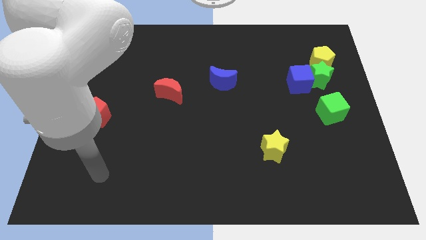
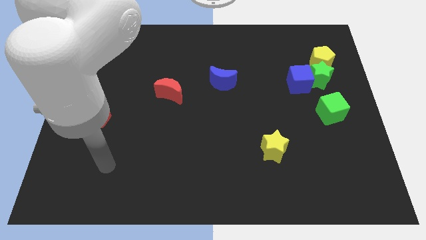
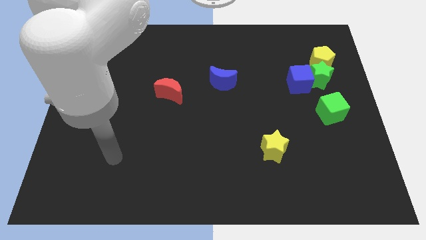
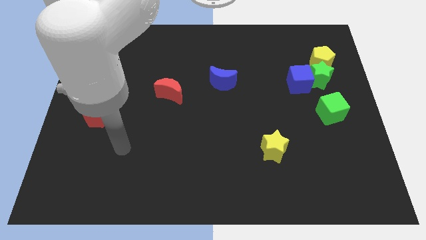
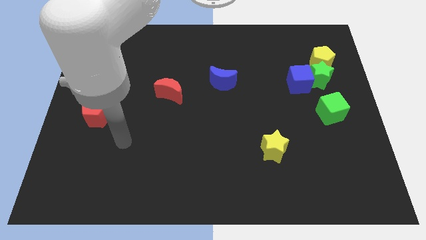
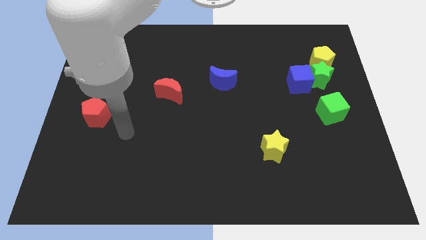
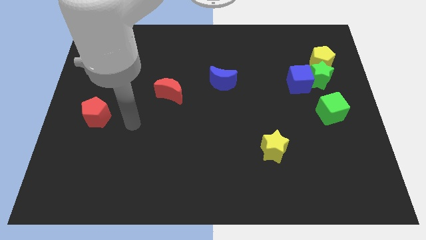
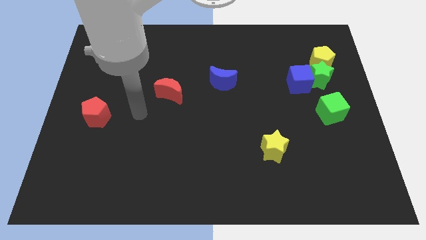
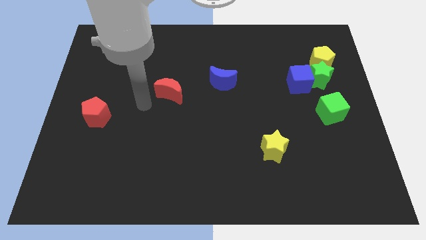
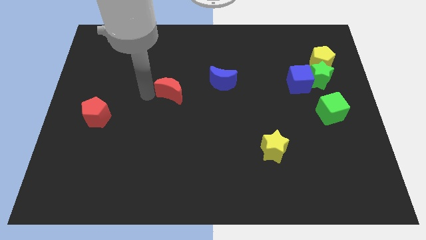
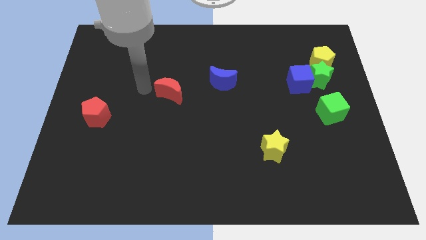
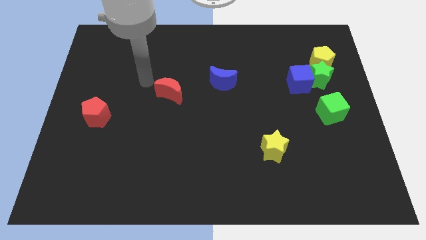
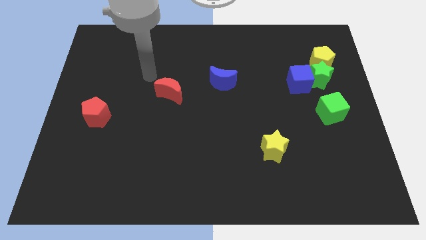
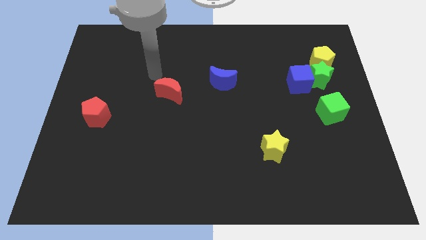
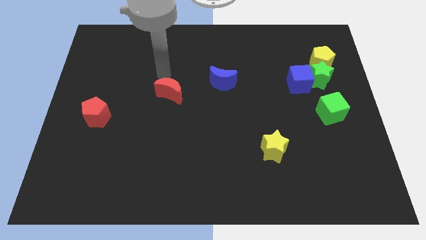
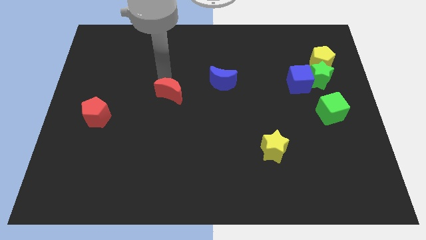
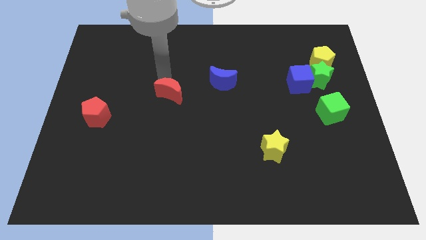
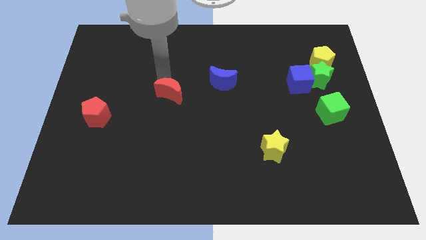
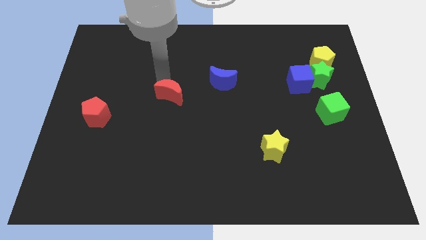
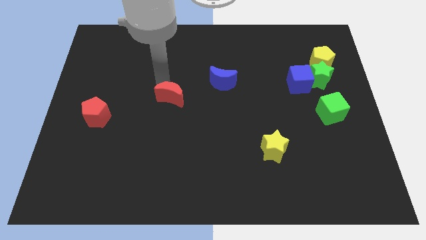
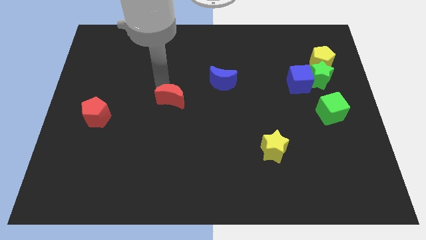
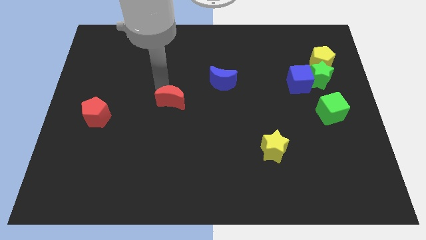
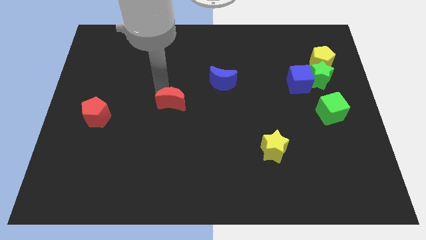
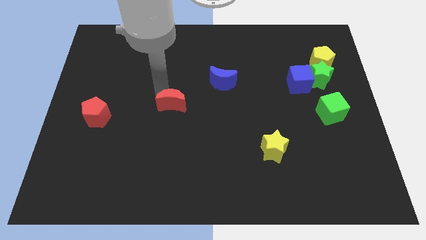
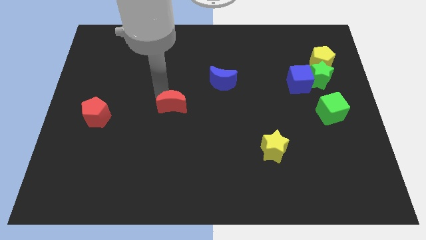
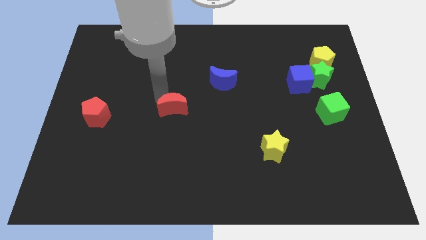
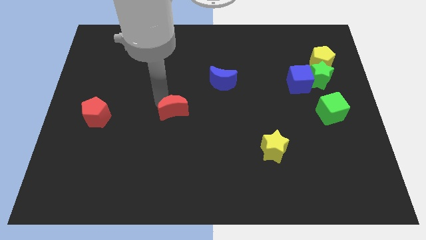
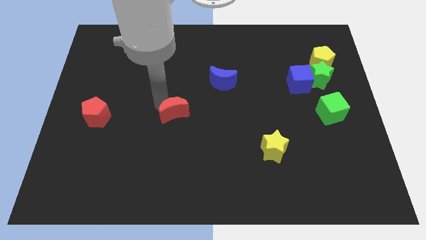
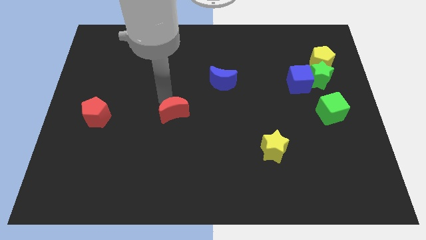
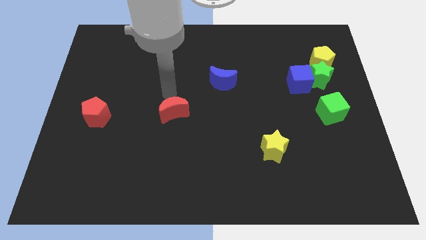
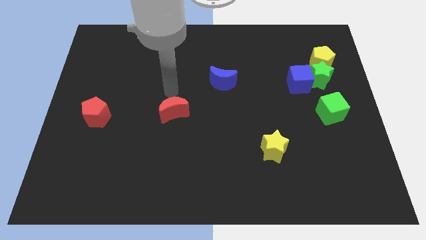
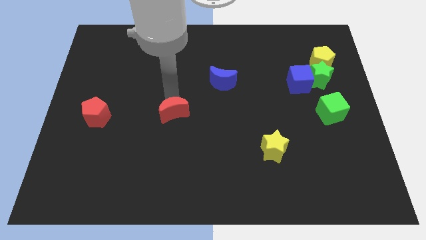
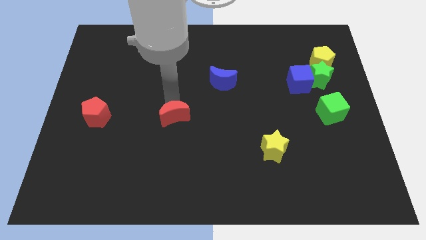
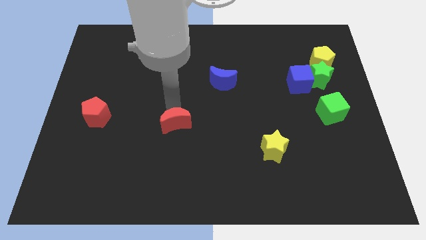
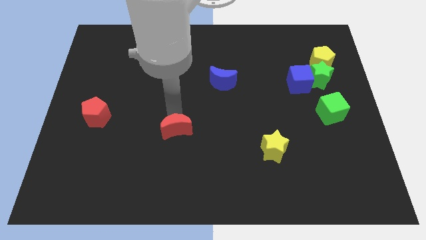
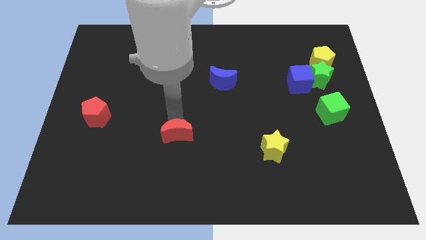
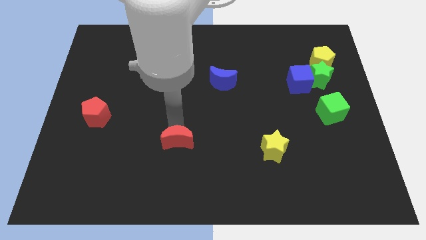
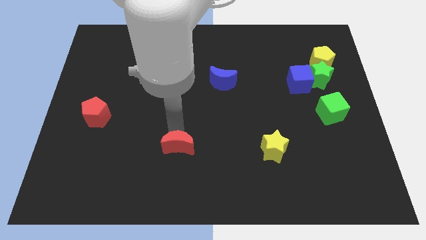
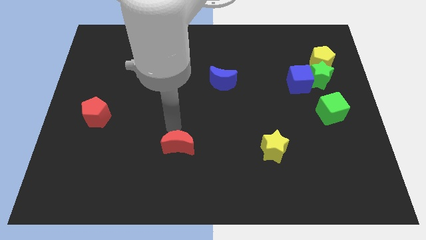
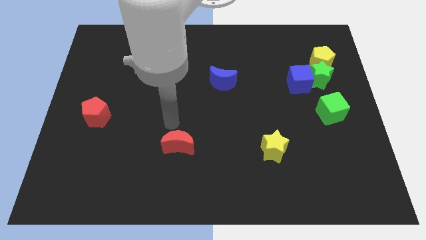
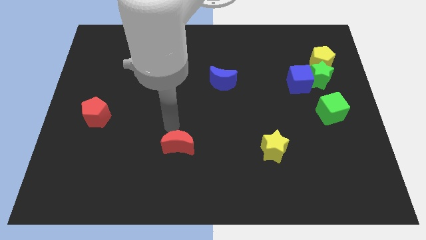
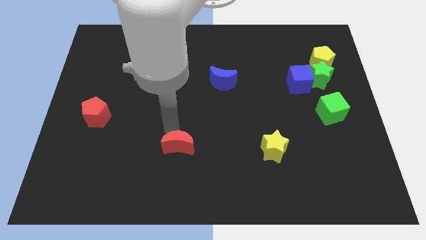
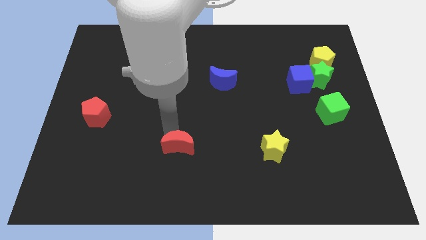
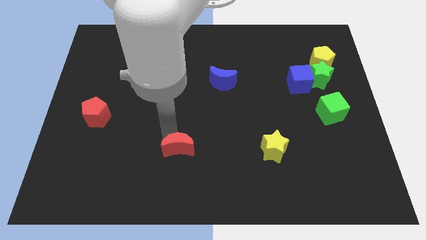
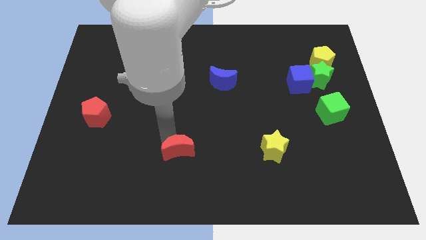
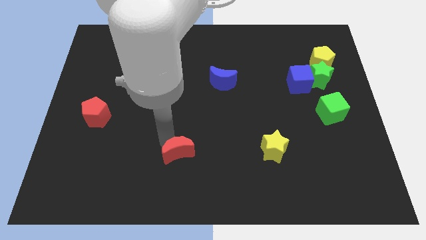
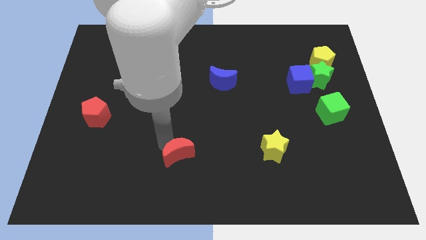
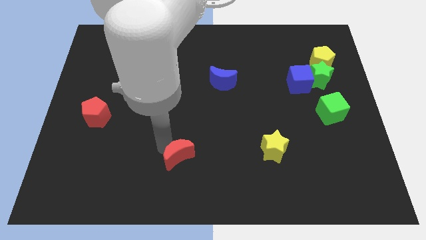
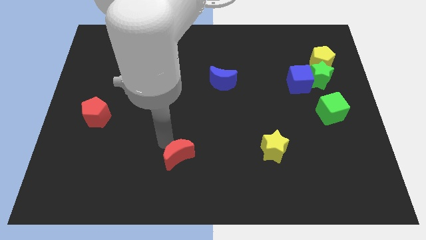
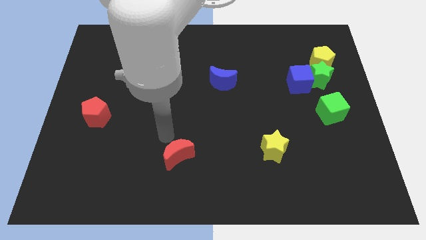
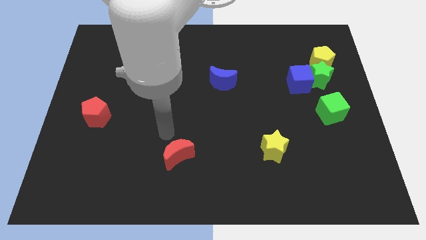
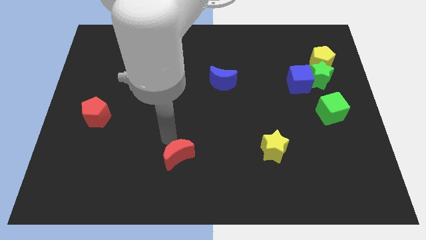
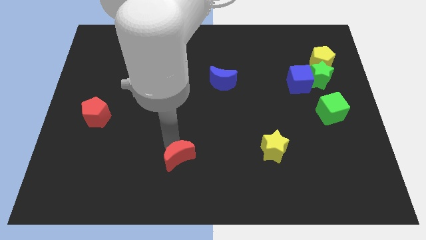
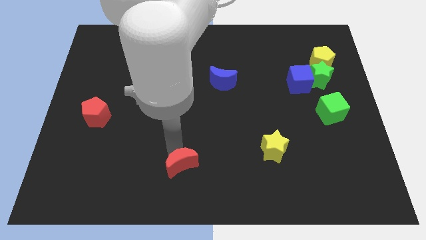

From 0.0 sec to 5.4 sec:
push the red moon to the bottom

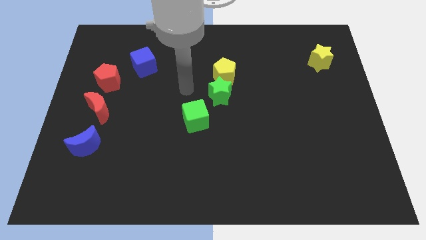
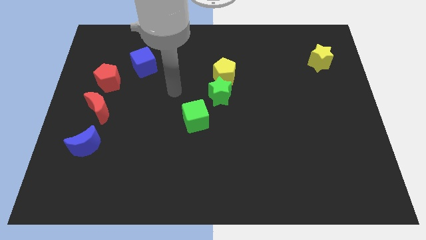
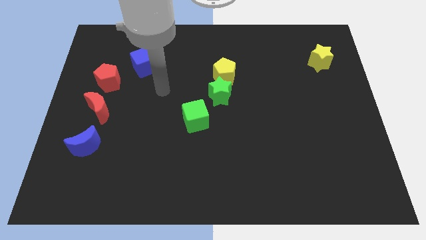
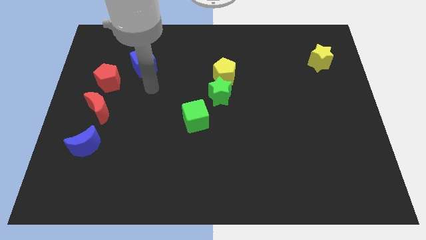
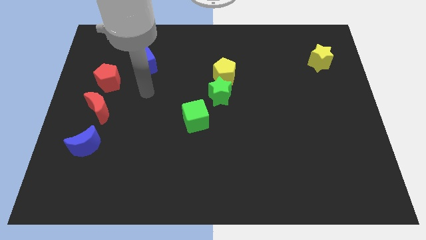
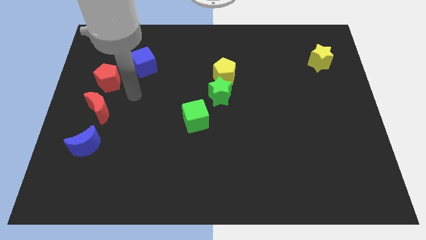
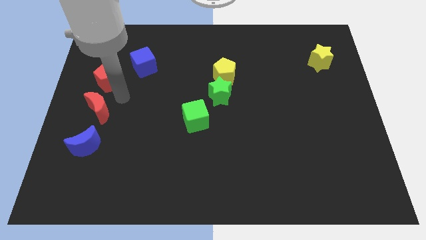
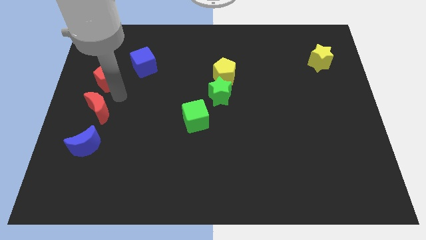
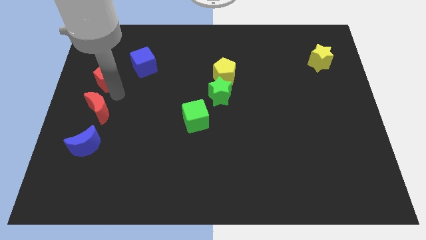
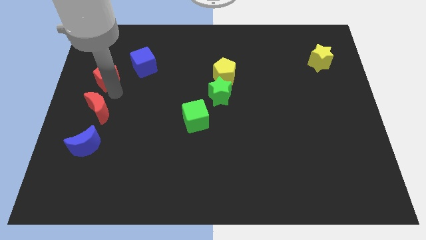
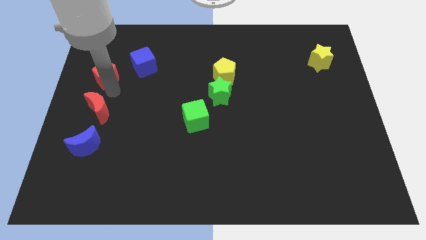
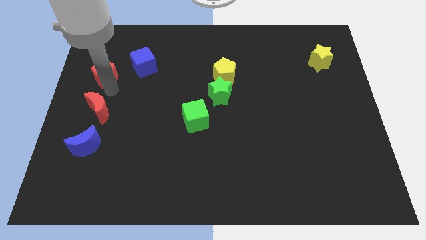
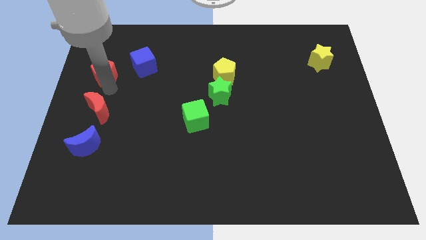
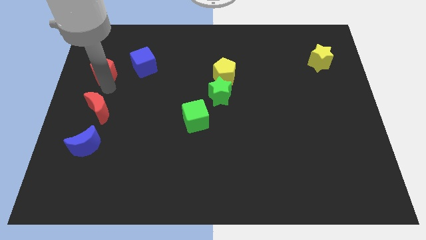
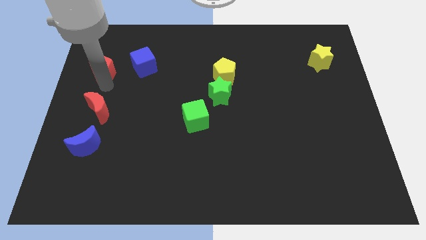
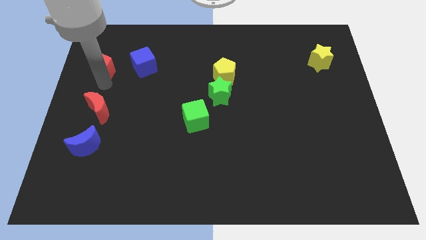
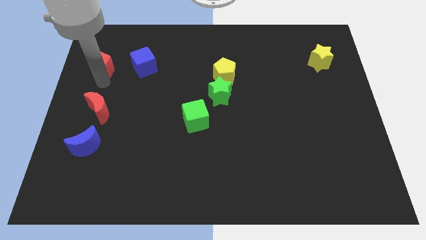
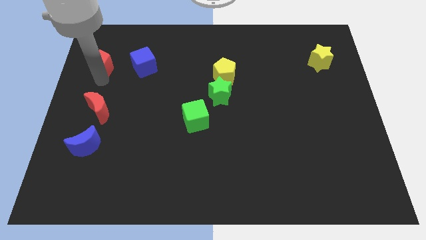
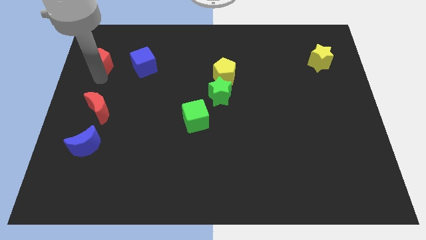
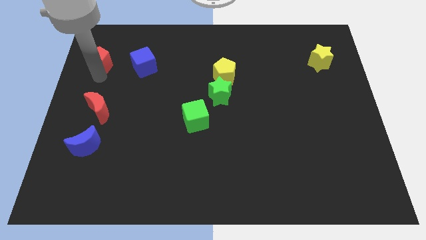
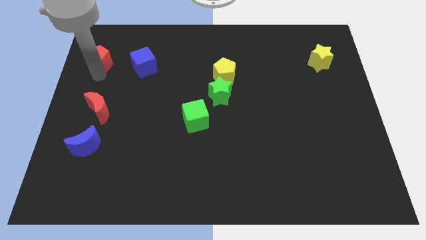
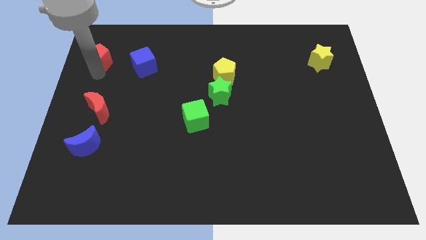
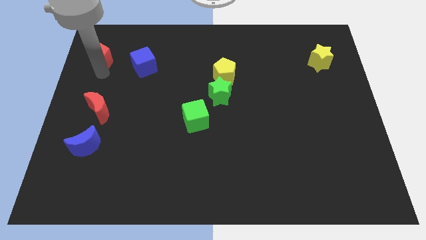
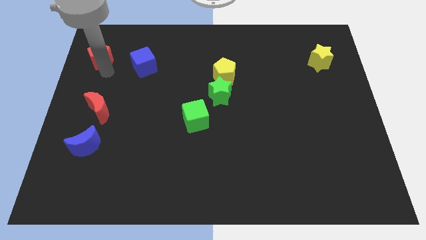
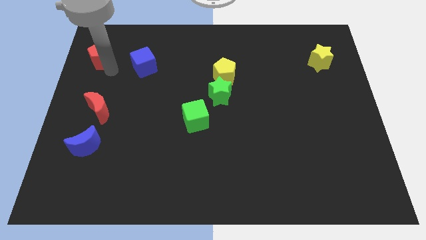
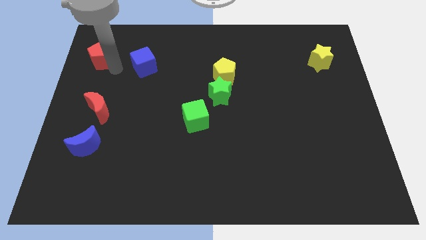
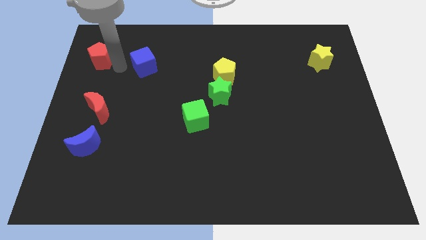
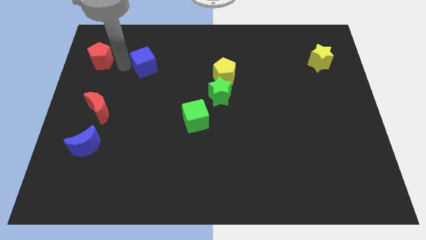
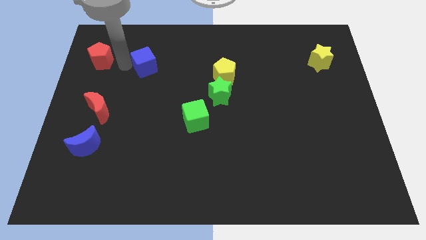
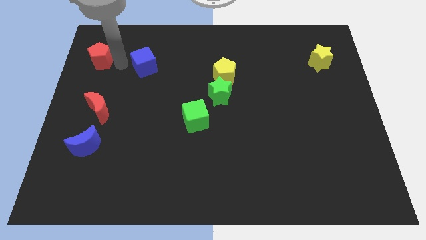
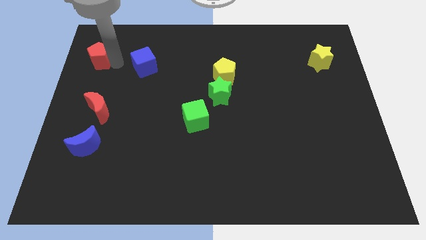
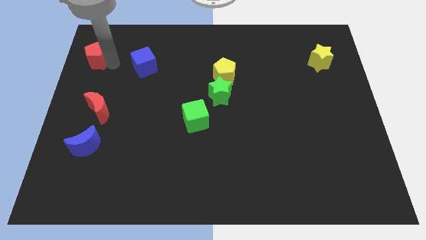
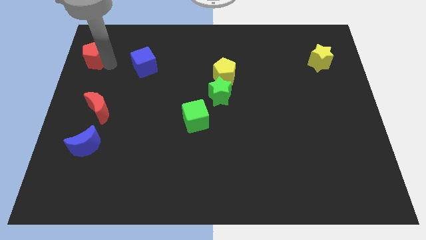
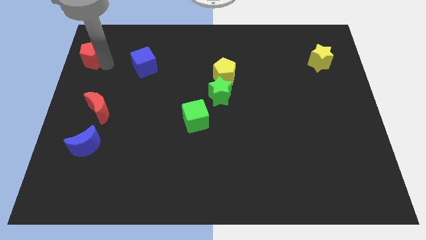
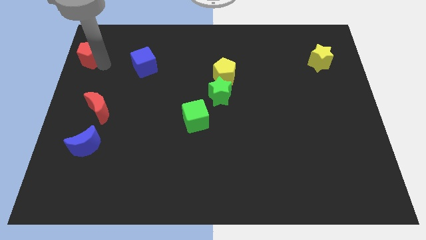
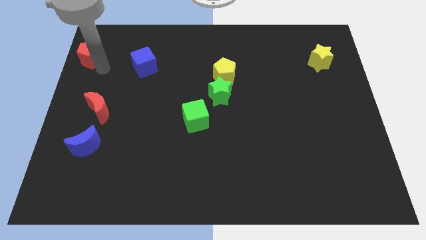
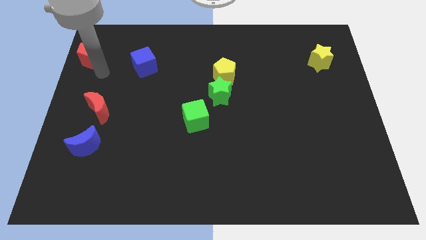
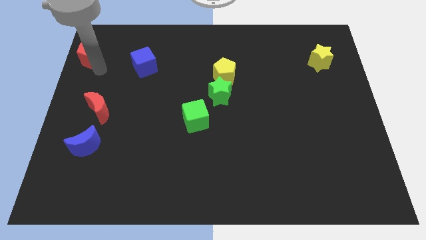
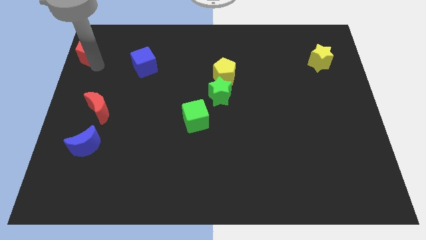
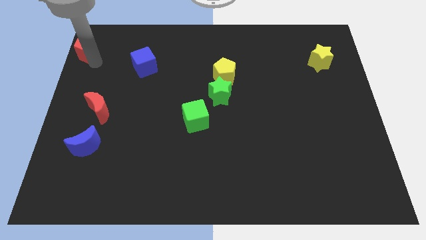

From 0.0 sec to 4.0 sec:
push the red pentagon to the top left
